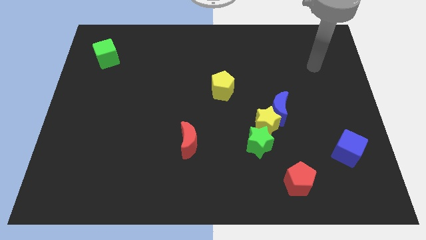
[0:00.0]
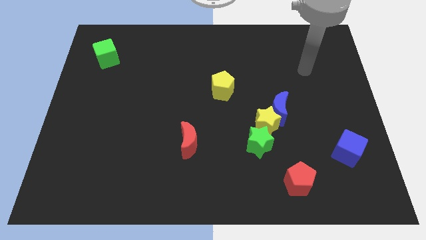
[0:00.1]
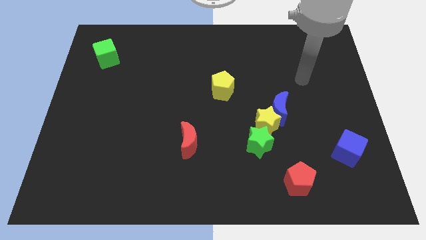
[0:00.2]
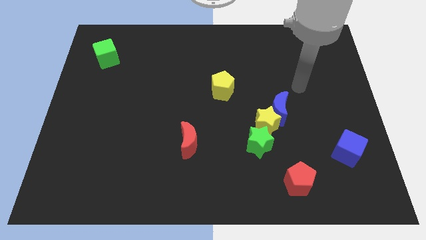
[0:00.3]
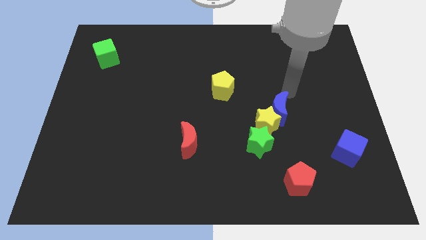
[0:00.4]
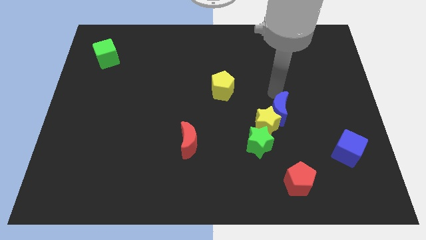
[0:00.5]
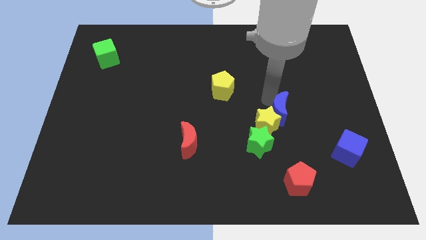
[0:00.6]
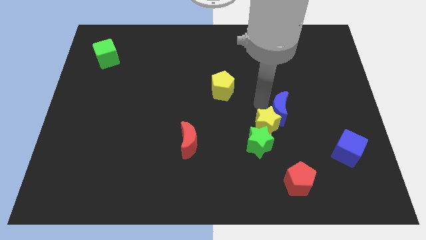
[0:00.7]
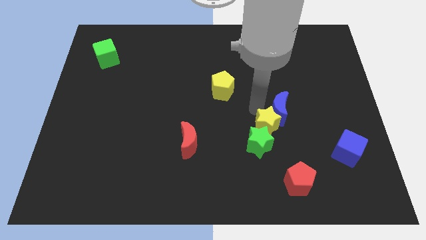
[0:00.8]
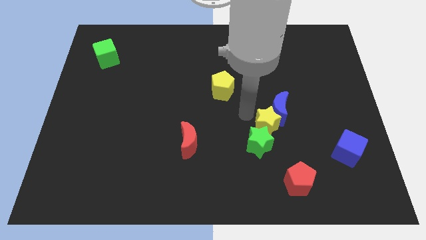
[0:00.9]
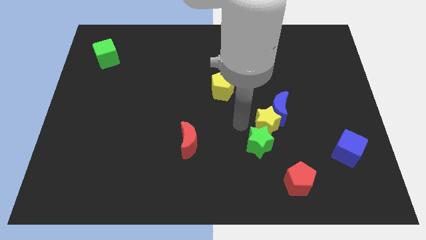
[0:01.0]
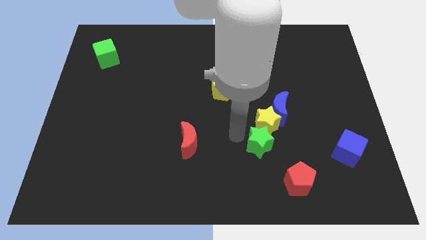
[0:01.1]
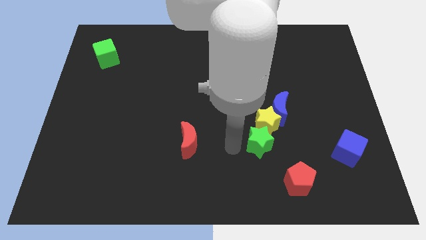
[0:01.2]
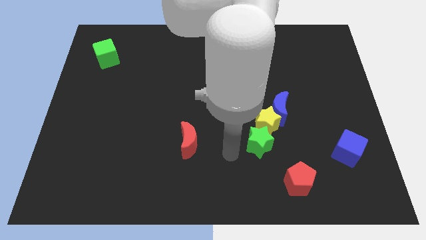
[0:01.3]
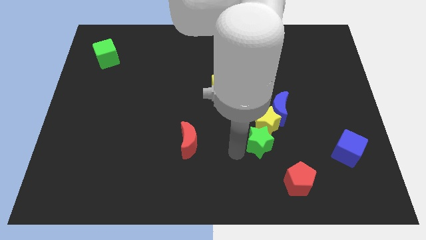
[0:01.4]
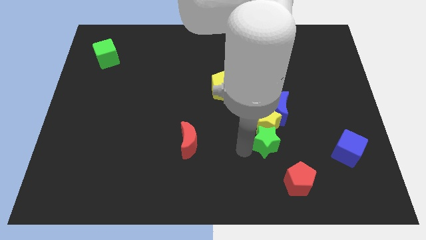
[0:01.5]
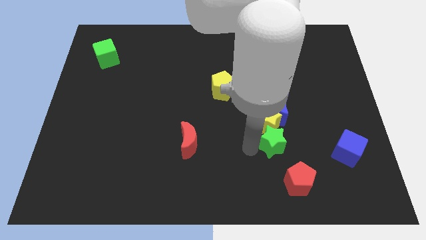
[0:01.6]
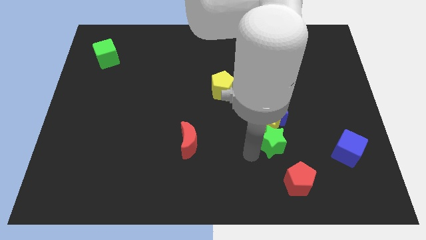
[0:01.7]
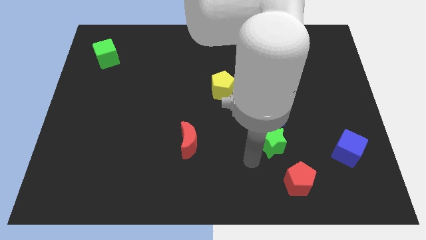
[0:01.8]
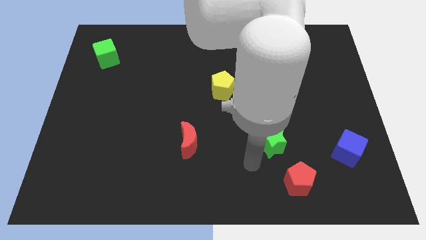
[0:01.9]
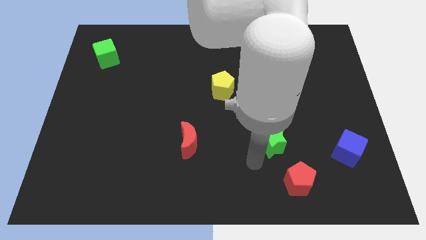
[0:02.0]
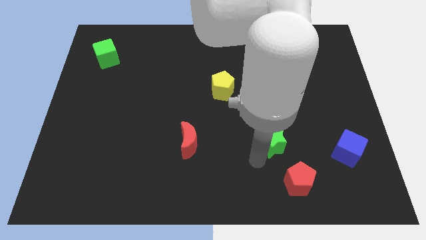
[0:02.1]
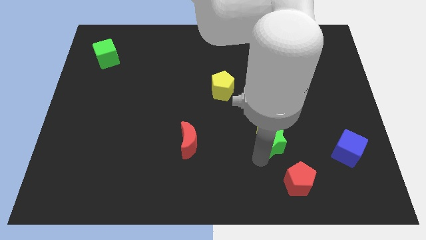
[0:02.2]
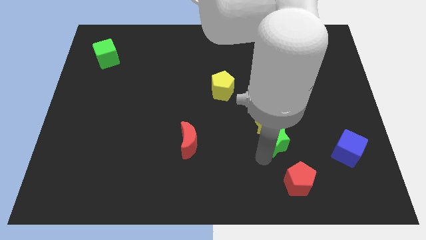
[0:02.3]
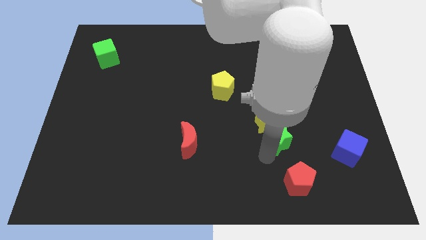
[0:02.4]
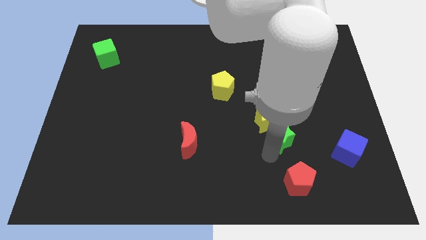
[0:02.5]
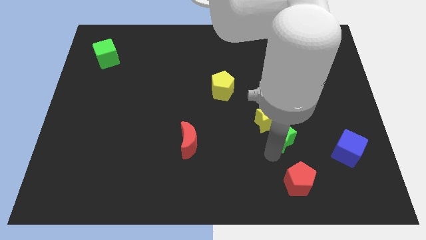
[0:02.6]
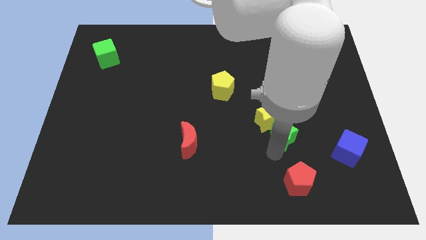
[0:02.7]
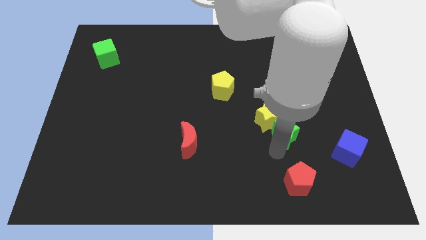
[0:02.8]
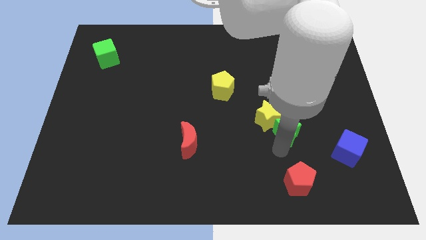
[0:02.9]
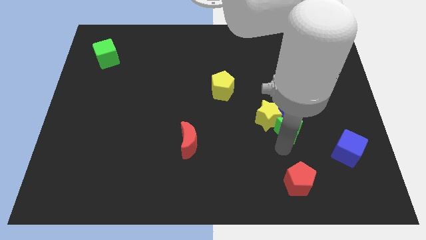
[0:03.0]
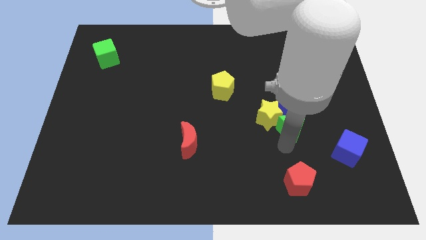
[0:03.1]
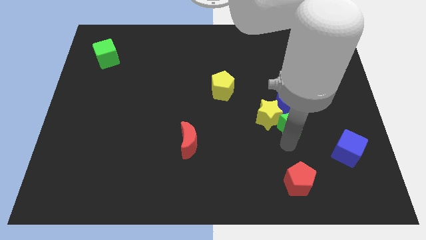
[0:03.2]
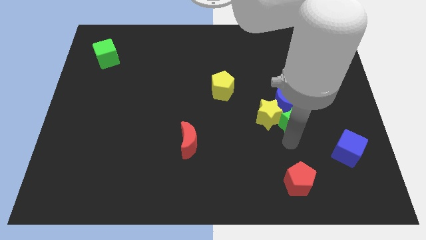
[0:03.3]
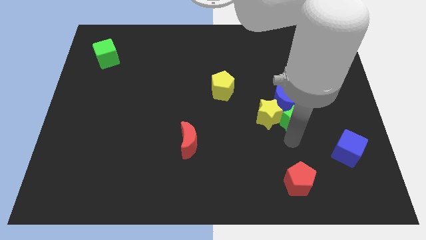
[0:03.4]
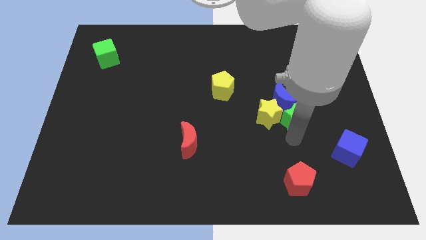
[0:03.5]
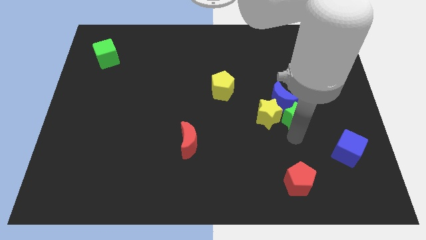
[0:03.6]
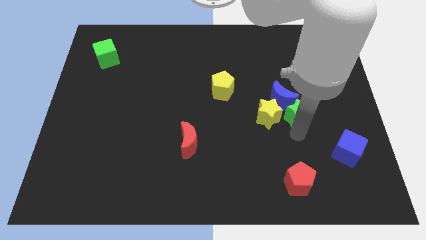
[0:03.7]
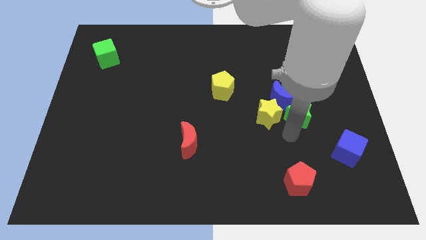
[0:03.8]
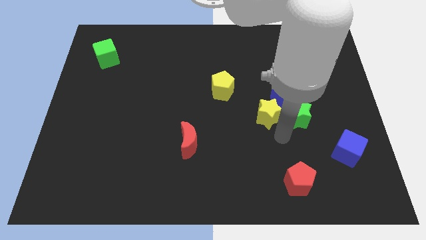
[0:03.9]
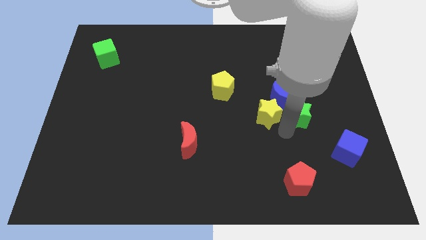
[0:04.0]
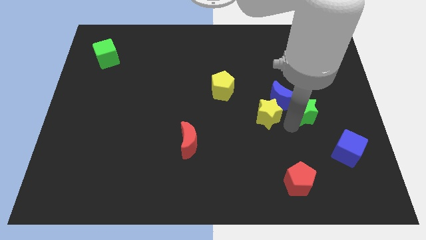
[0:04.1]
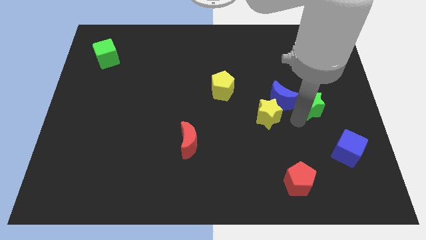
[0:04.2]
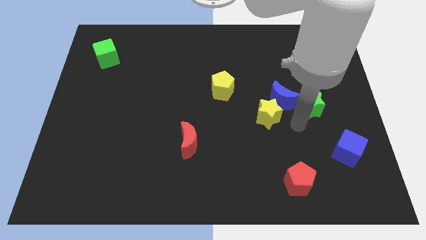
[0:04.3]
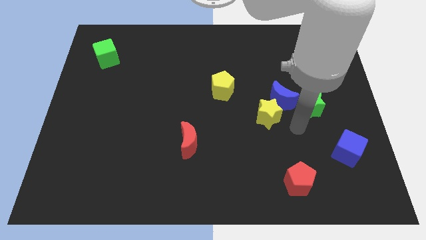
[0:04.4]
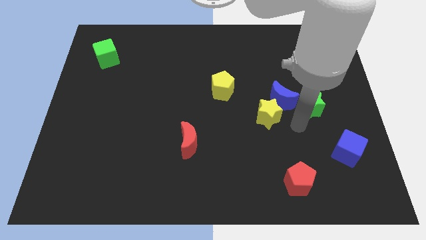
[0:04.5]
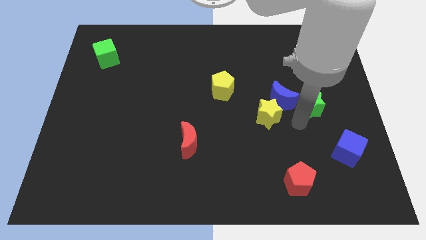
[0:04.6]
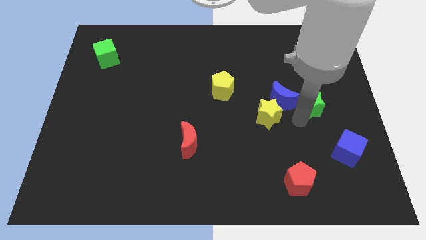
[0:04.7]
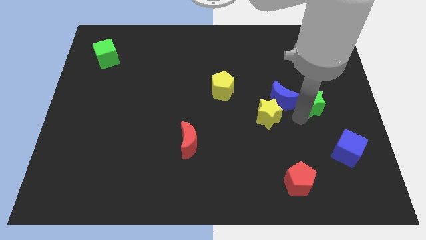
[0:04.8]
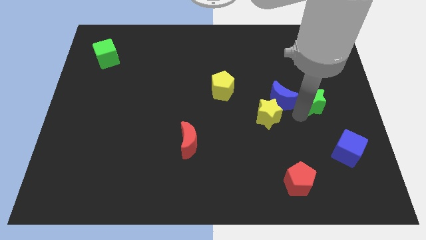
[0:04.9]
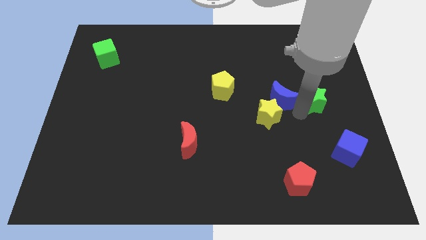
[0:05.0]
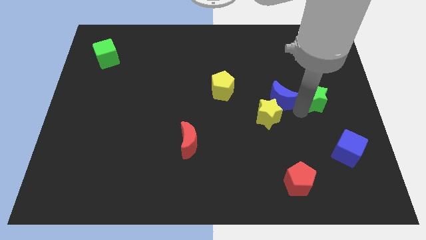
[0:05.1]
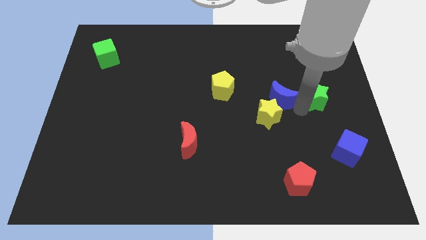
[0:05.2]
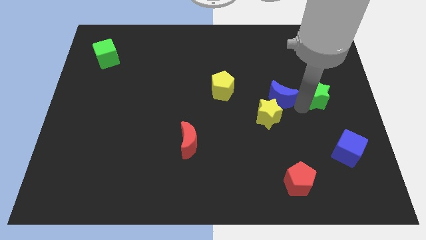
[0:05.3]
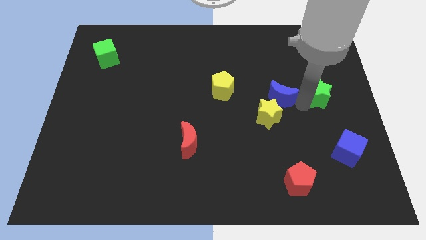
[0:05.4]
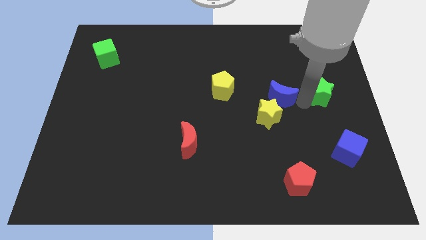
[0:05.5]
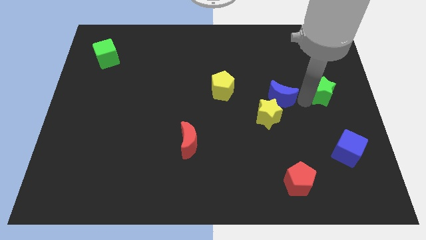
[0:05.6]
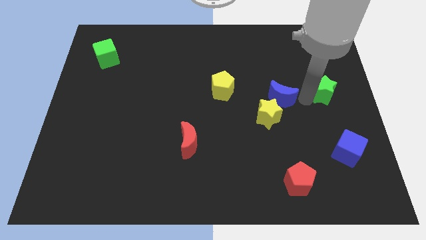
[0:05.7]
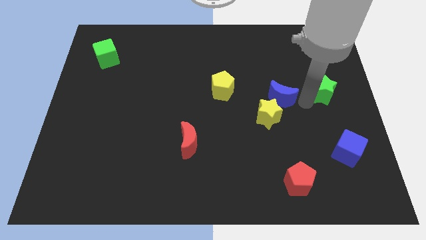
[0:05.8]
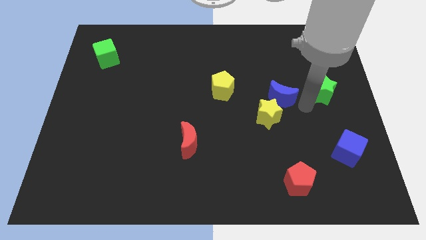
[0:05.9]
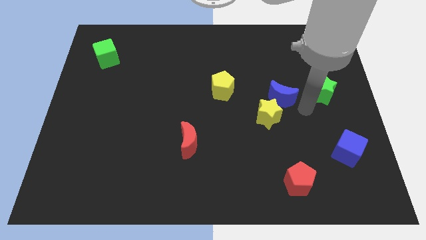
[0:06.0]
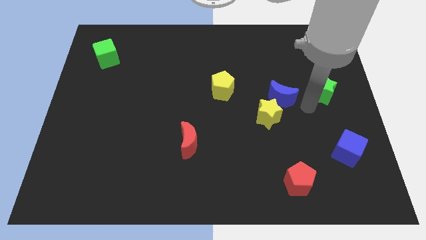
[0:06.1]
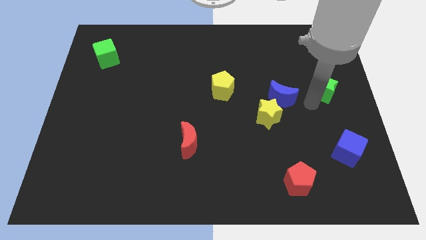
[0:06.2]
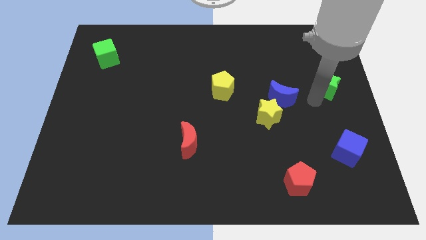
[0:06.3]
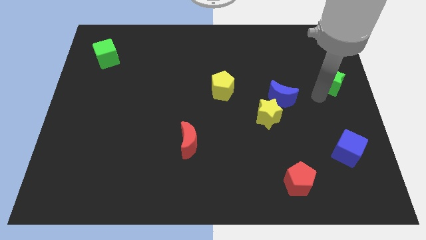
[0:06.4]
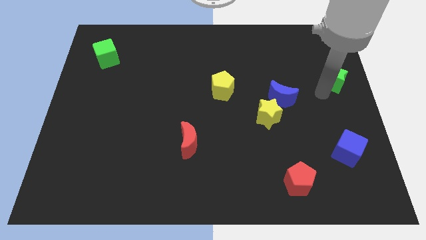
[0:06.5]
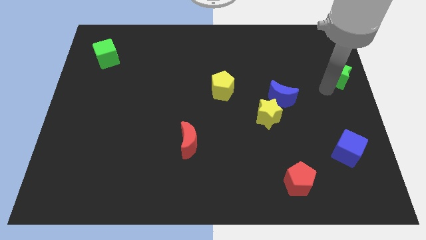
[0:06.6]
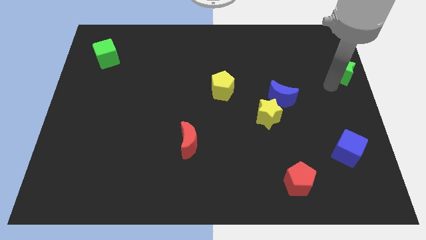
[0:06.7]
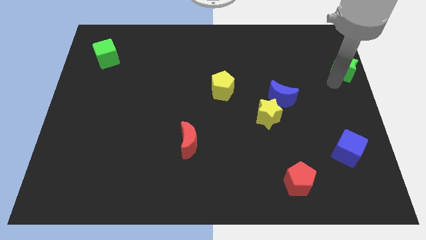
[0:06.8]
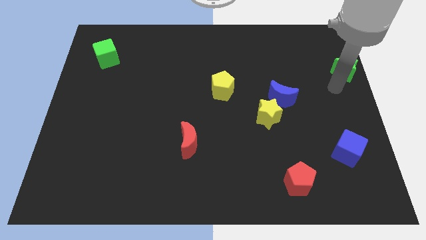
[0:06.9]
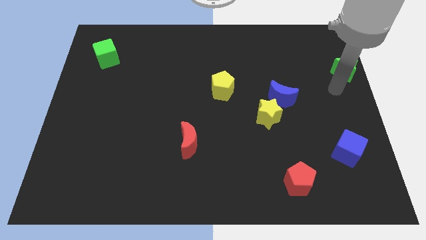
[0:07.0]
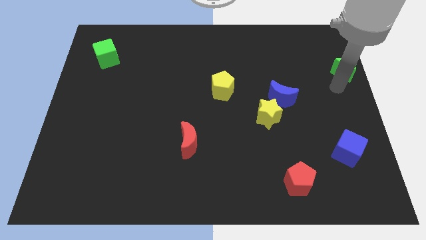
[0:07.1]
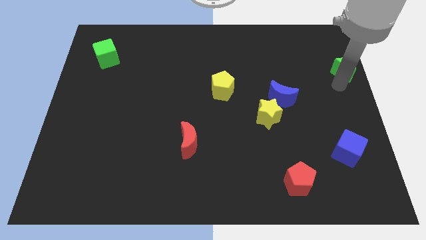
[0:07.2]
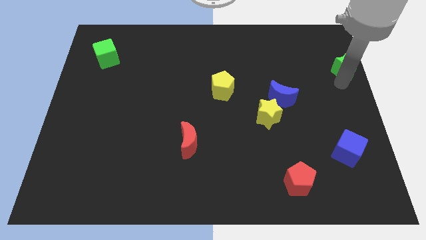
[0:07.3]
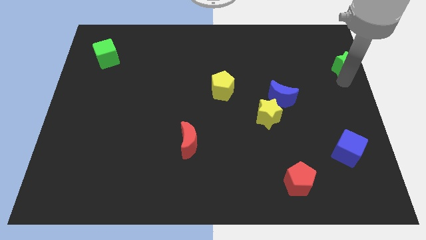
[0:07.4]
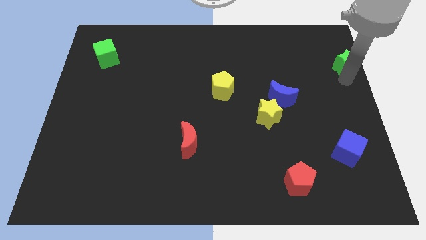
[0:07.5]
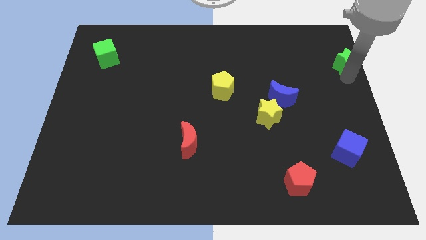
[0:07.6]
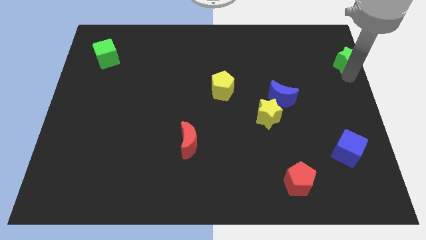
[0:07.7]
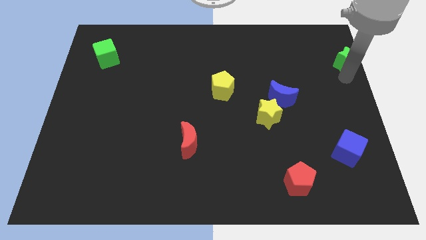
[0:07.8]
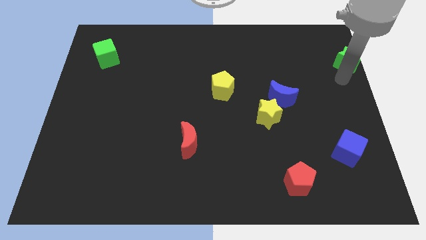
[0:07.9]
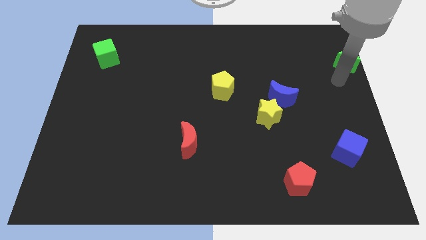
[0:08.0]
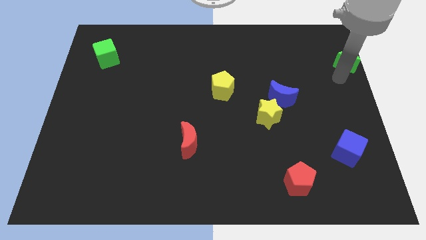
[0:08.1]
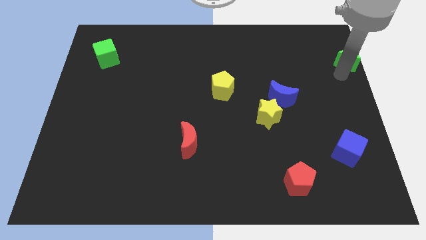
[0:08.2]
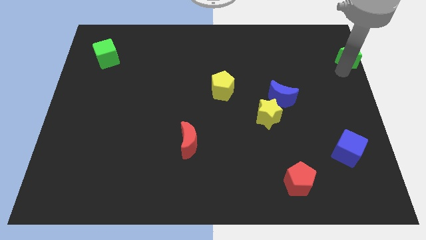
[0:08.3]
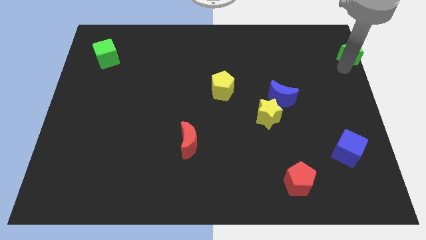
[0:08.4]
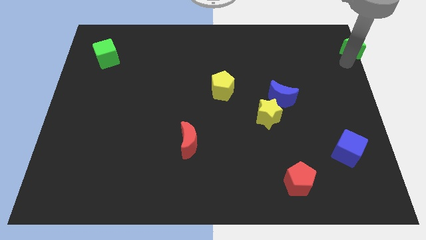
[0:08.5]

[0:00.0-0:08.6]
move the green star to the upper right corner
